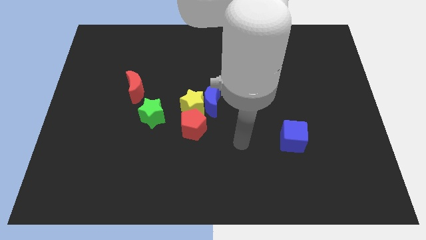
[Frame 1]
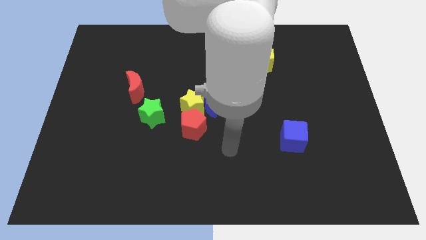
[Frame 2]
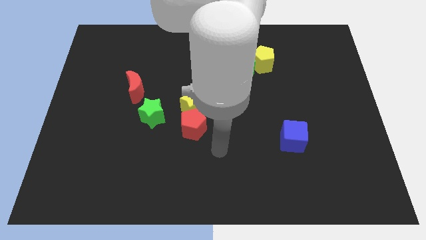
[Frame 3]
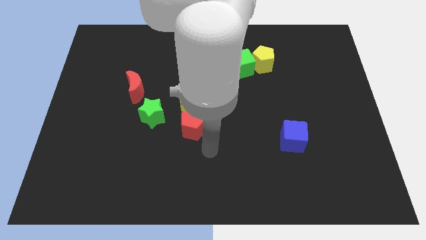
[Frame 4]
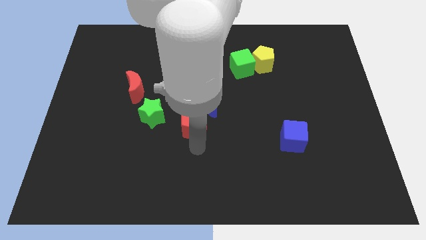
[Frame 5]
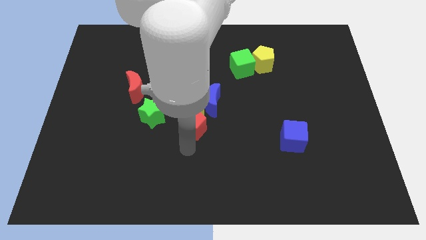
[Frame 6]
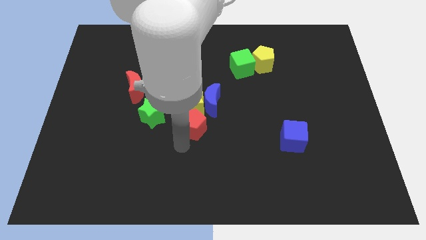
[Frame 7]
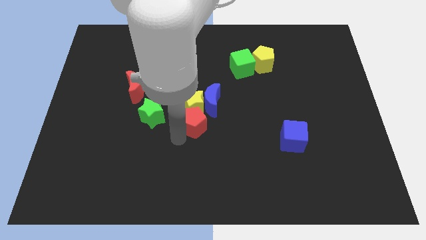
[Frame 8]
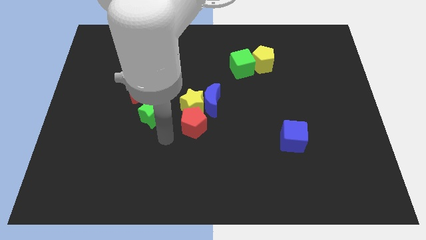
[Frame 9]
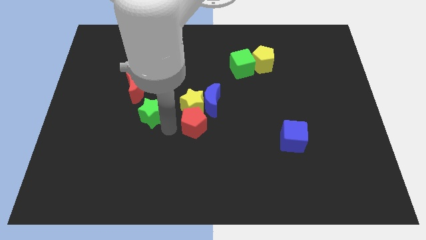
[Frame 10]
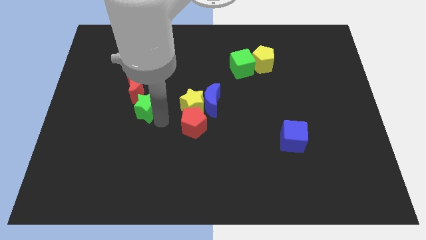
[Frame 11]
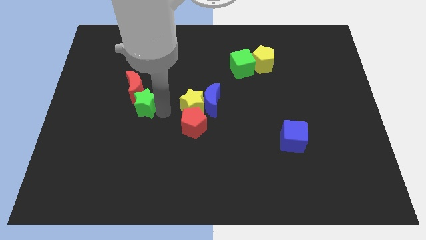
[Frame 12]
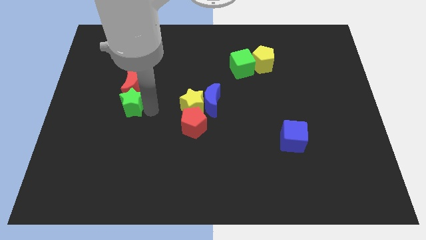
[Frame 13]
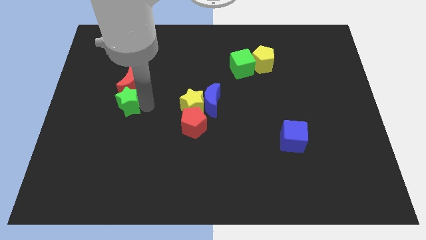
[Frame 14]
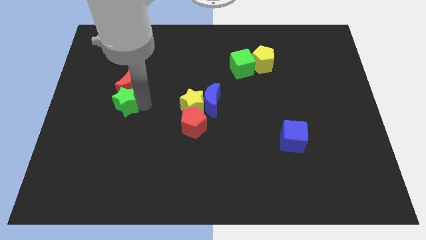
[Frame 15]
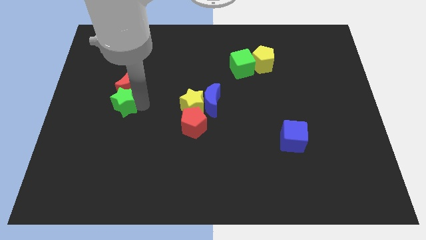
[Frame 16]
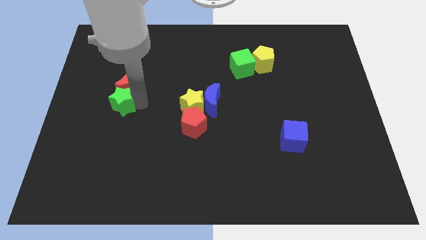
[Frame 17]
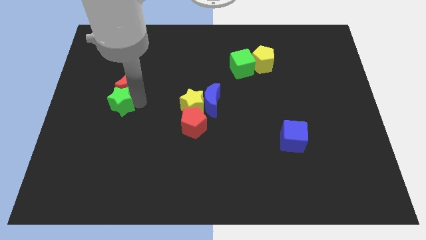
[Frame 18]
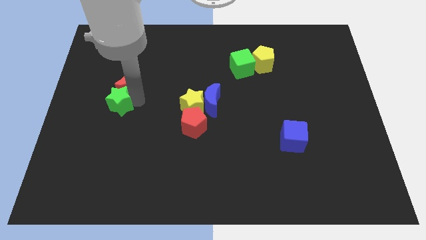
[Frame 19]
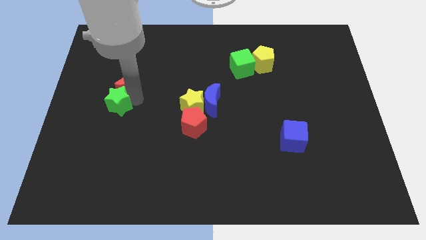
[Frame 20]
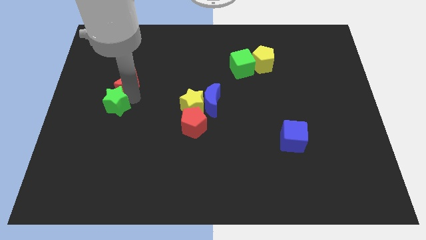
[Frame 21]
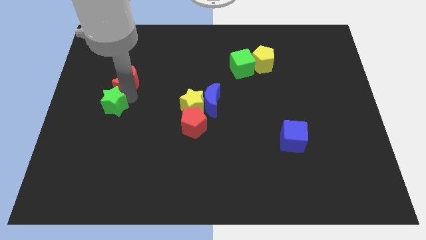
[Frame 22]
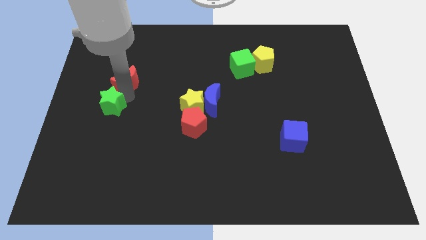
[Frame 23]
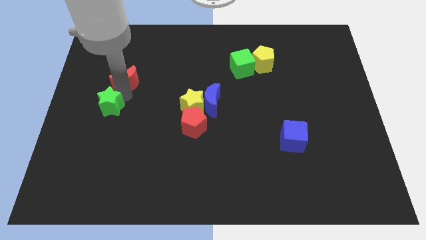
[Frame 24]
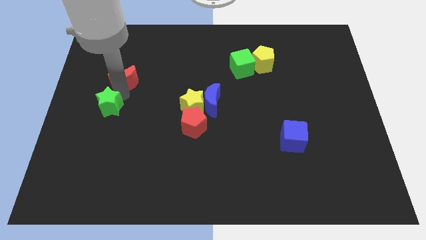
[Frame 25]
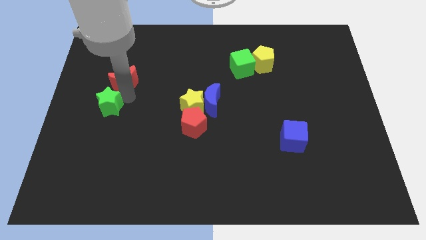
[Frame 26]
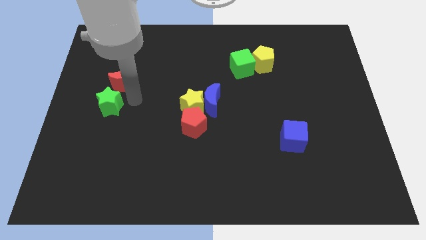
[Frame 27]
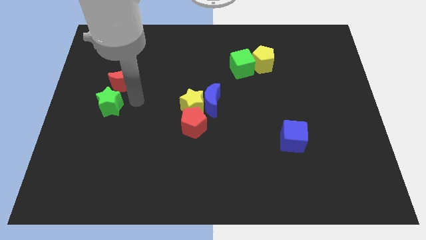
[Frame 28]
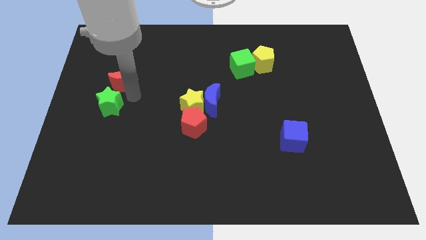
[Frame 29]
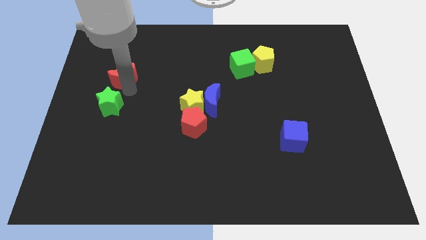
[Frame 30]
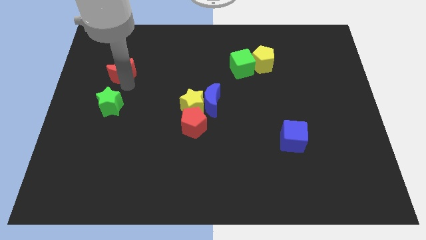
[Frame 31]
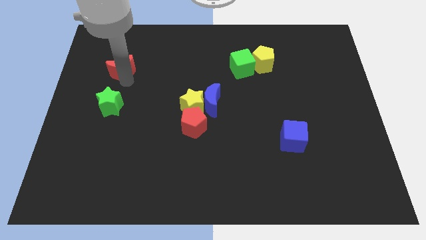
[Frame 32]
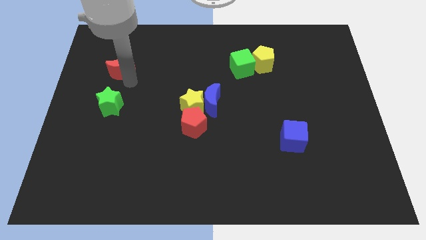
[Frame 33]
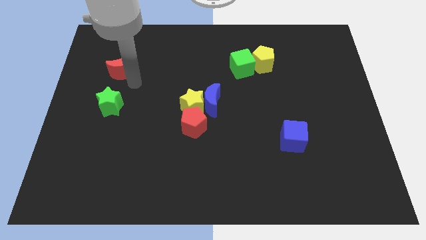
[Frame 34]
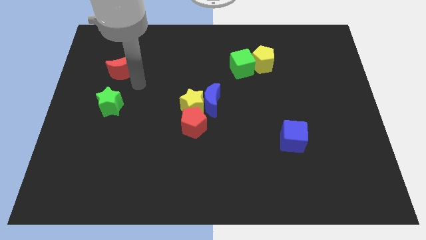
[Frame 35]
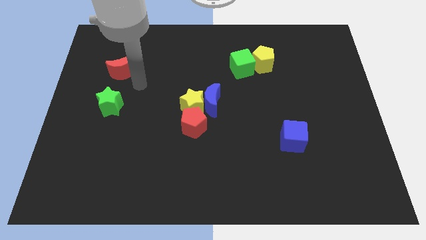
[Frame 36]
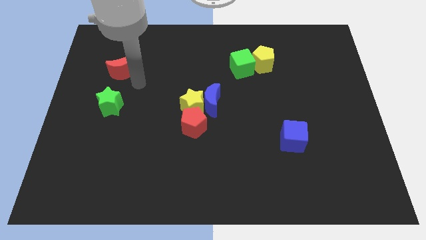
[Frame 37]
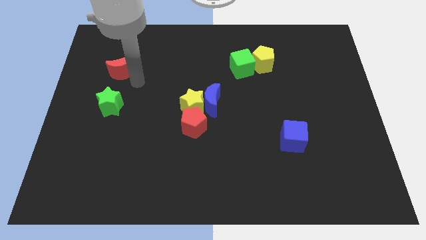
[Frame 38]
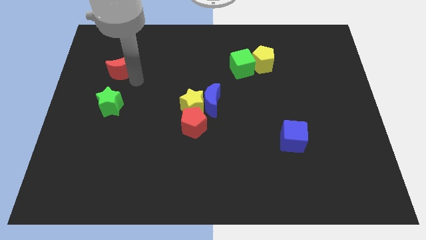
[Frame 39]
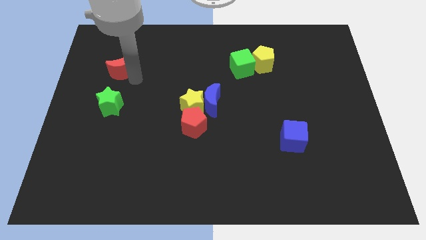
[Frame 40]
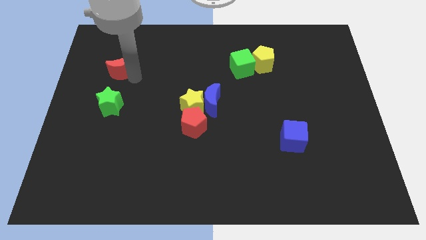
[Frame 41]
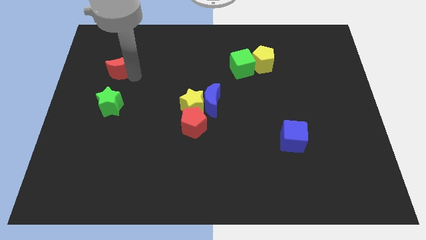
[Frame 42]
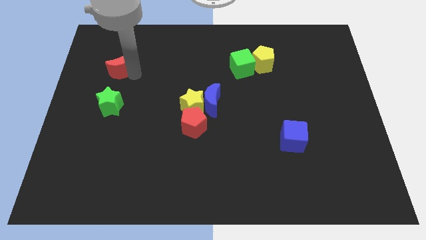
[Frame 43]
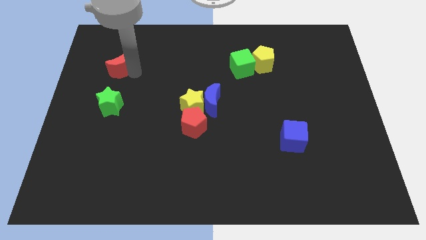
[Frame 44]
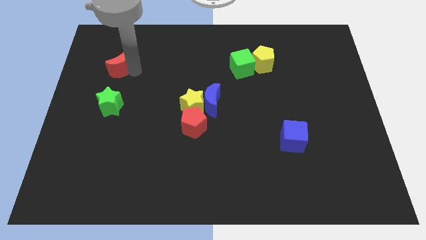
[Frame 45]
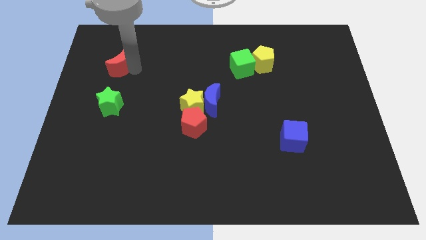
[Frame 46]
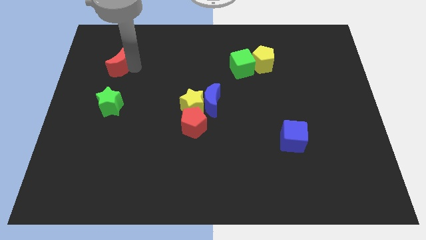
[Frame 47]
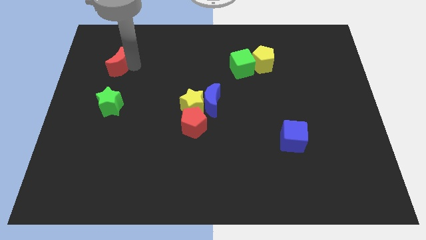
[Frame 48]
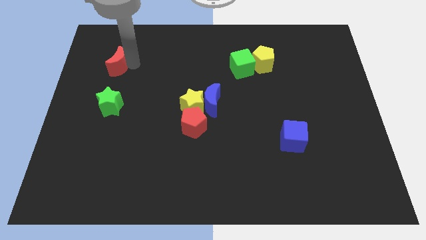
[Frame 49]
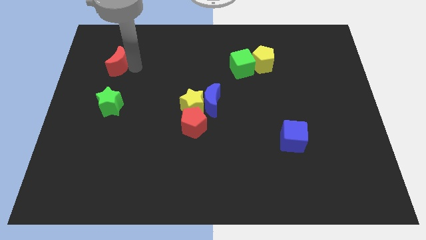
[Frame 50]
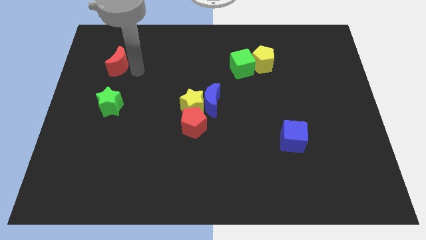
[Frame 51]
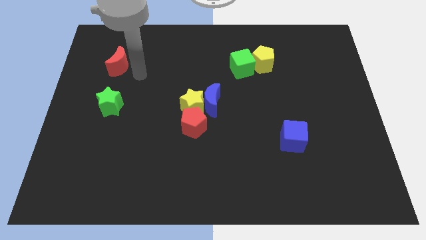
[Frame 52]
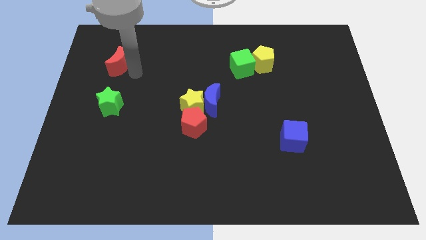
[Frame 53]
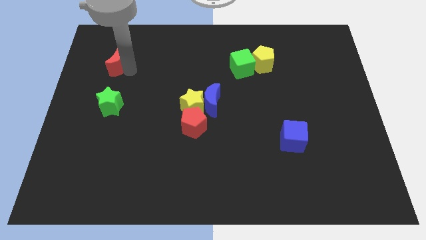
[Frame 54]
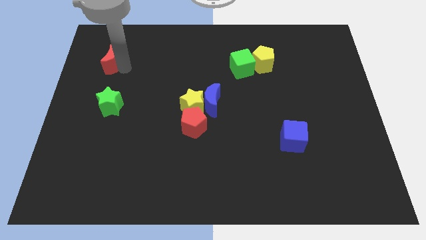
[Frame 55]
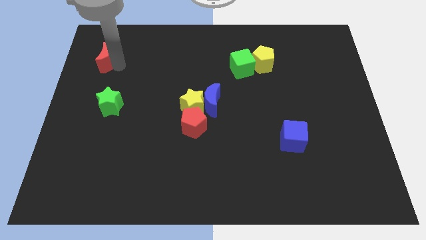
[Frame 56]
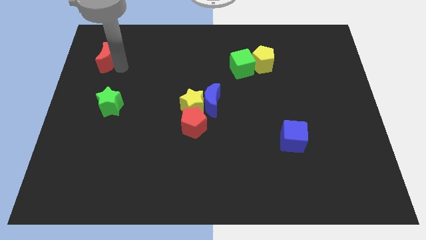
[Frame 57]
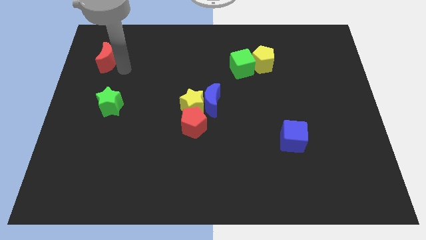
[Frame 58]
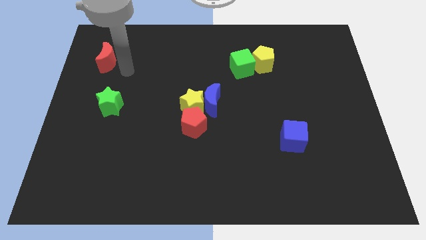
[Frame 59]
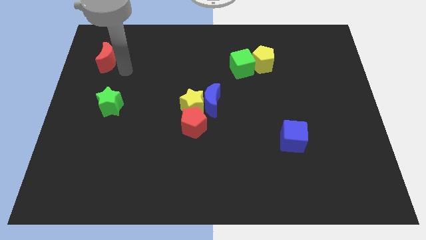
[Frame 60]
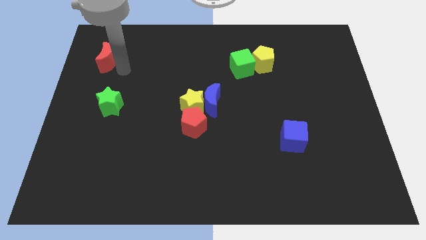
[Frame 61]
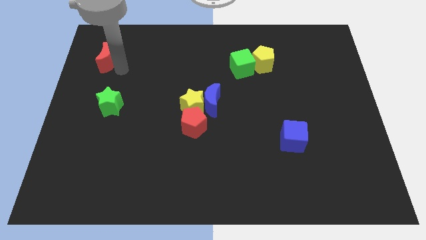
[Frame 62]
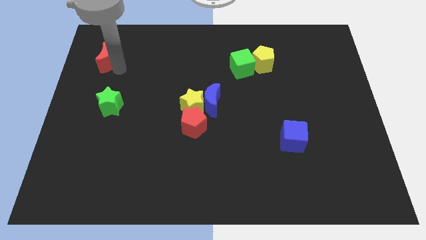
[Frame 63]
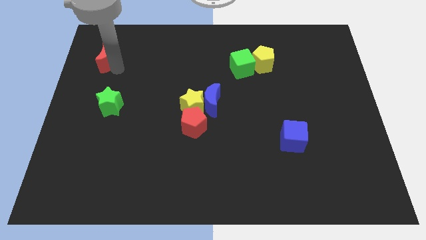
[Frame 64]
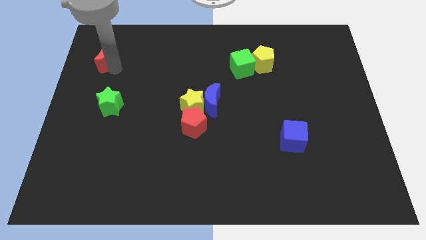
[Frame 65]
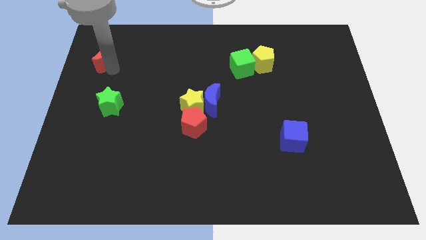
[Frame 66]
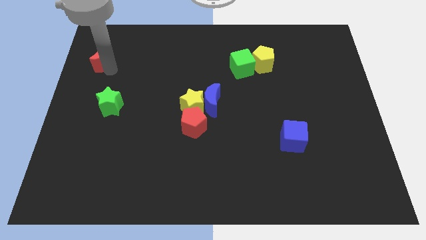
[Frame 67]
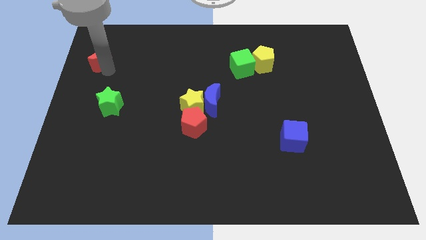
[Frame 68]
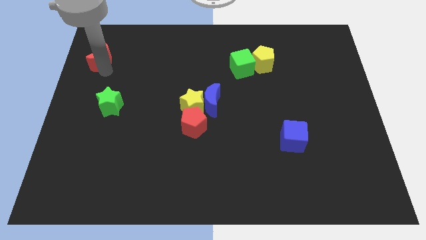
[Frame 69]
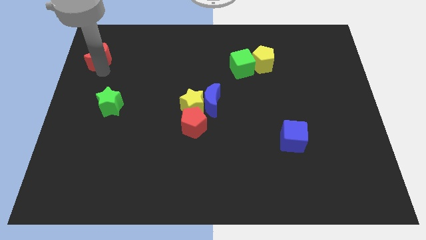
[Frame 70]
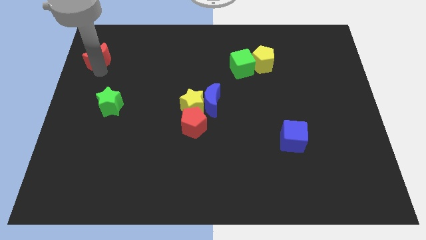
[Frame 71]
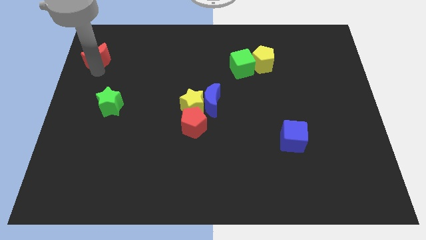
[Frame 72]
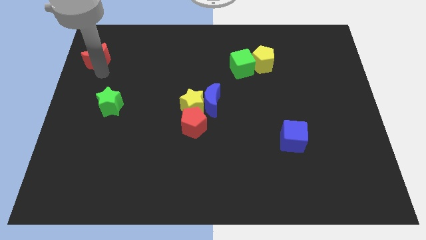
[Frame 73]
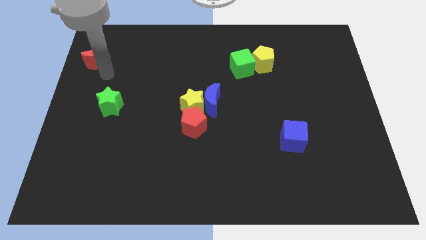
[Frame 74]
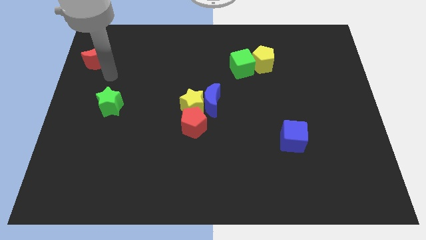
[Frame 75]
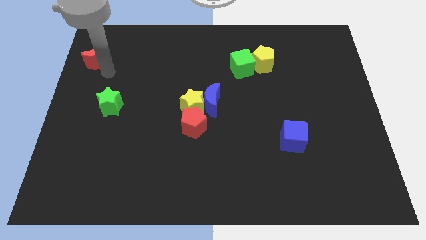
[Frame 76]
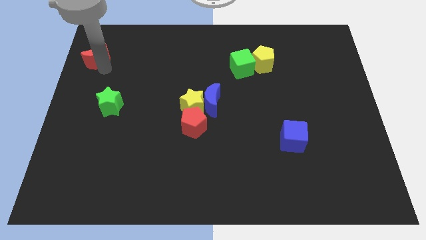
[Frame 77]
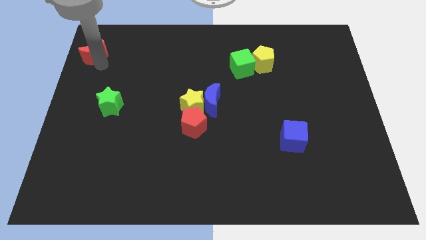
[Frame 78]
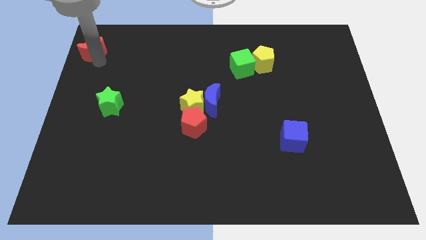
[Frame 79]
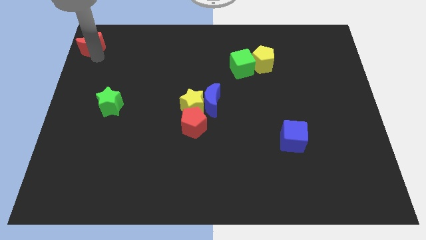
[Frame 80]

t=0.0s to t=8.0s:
put the red moon to the top left of the board
